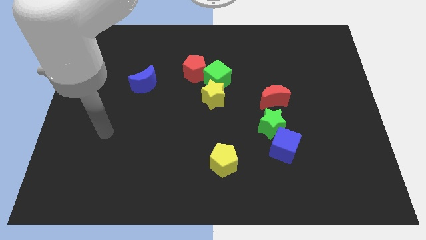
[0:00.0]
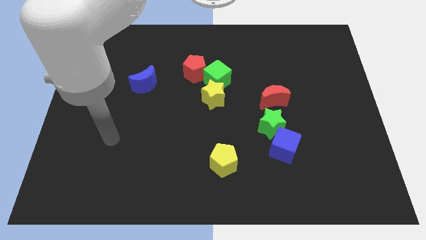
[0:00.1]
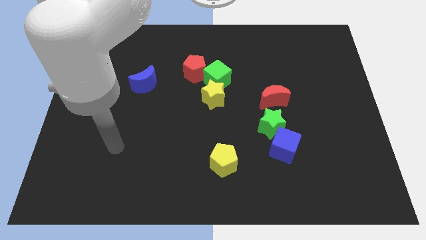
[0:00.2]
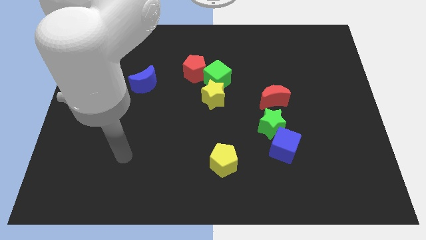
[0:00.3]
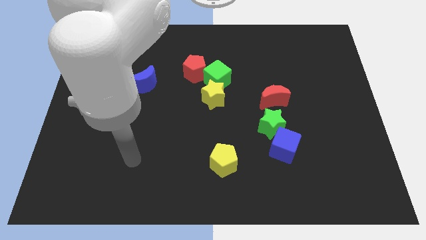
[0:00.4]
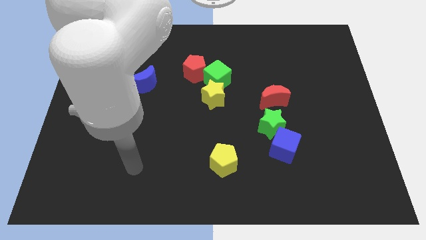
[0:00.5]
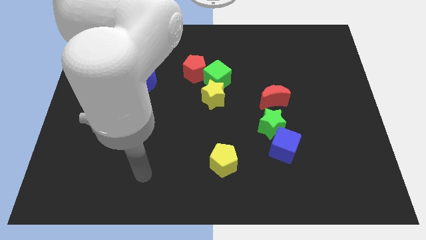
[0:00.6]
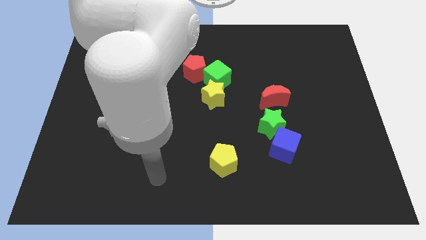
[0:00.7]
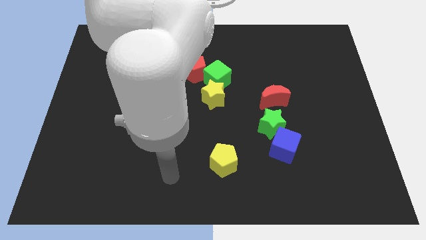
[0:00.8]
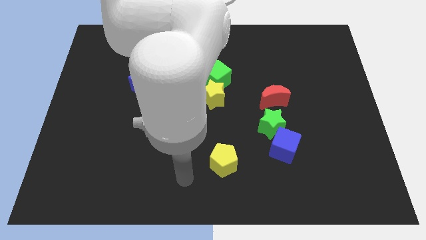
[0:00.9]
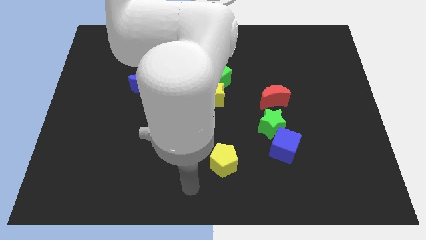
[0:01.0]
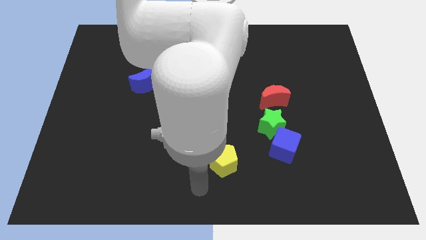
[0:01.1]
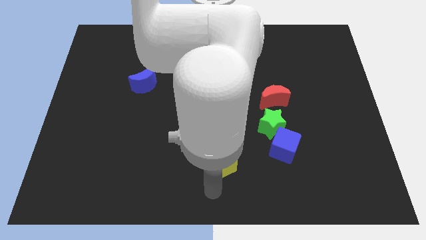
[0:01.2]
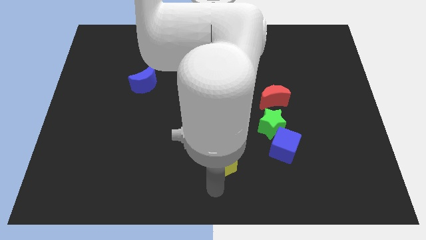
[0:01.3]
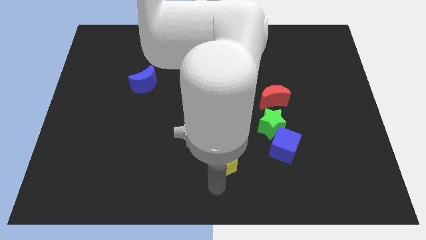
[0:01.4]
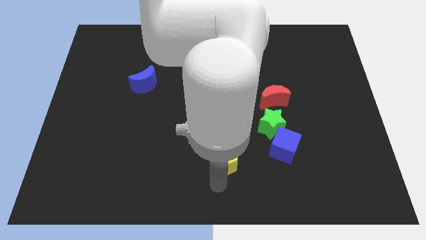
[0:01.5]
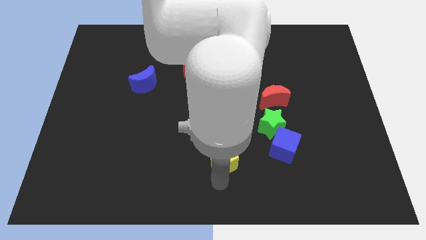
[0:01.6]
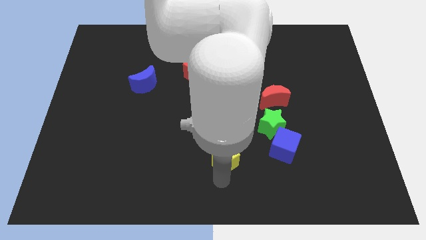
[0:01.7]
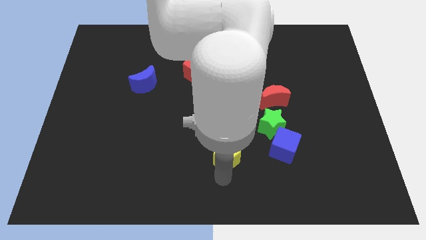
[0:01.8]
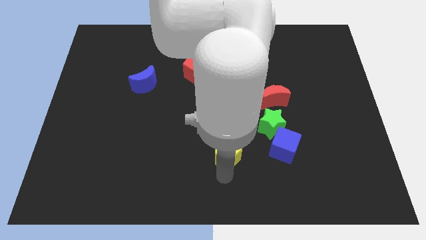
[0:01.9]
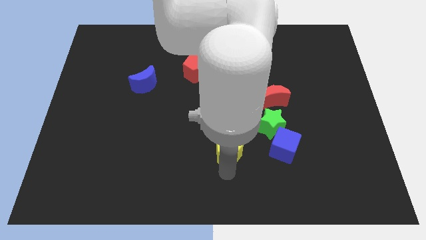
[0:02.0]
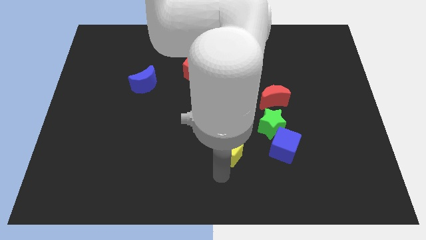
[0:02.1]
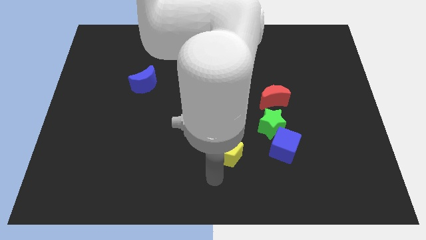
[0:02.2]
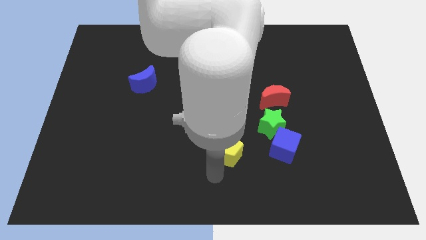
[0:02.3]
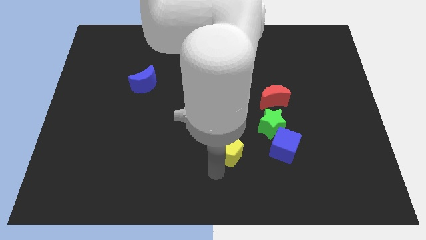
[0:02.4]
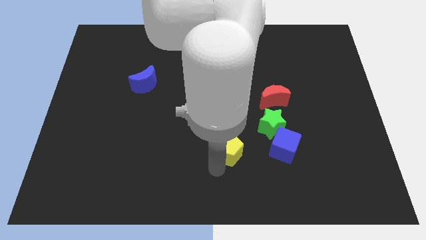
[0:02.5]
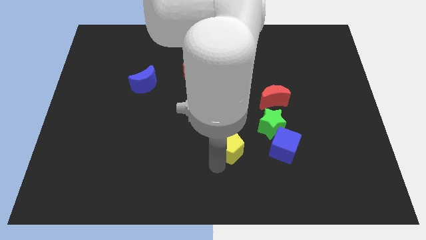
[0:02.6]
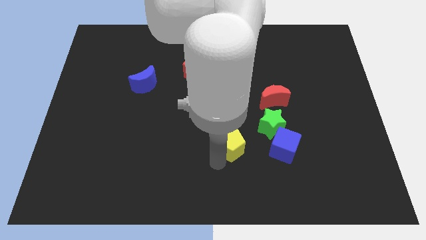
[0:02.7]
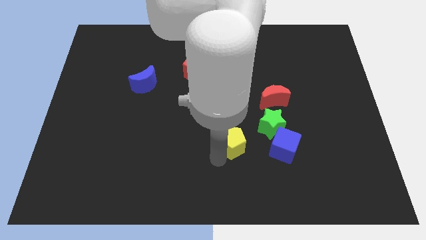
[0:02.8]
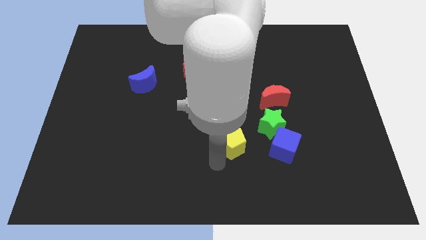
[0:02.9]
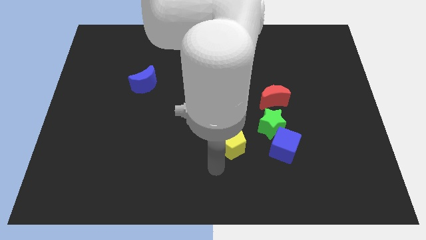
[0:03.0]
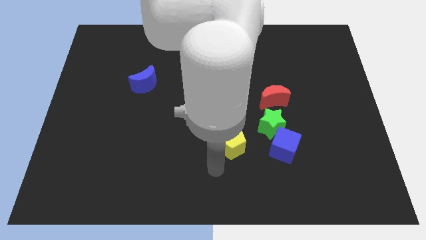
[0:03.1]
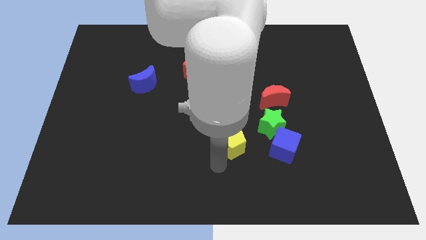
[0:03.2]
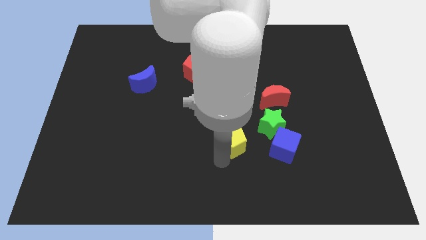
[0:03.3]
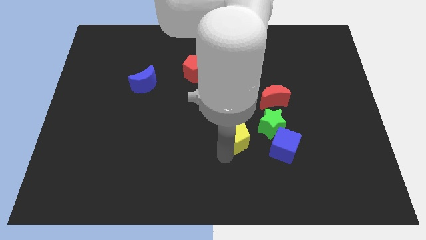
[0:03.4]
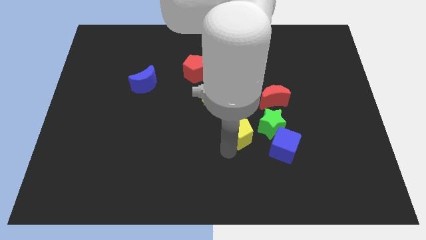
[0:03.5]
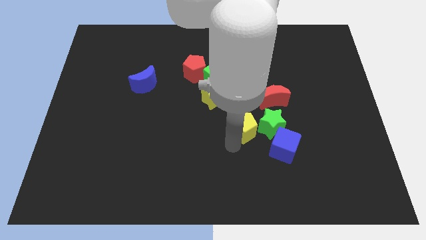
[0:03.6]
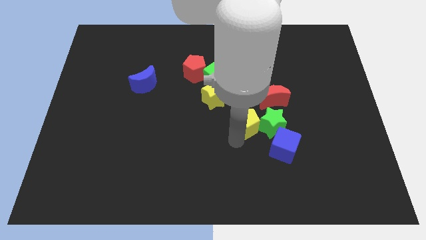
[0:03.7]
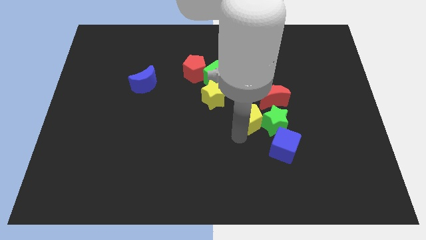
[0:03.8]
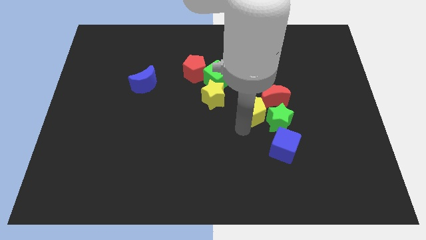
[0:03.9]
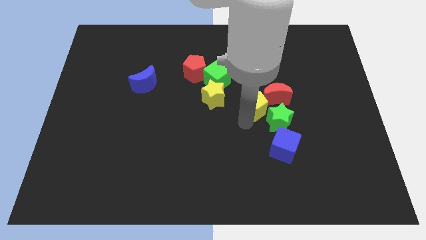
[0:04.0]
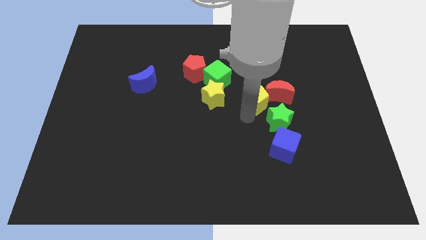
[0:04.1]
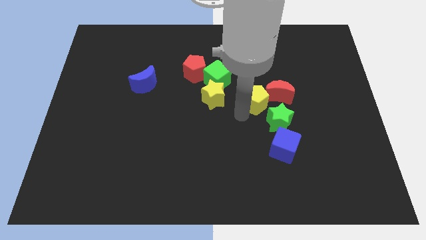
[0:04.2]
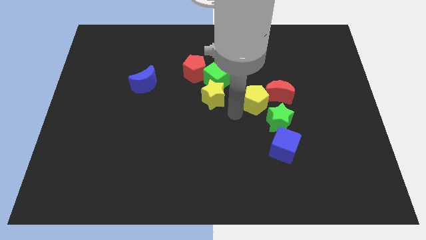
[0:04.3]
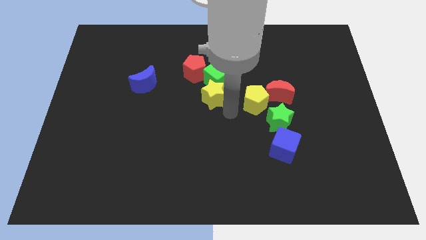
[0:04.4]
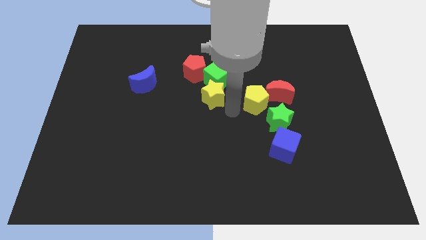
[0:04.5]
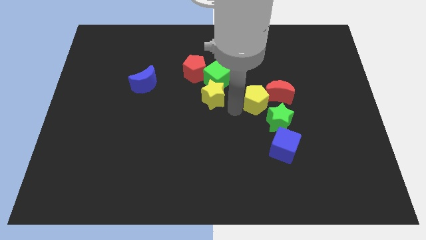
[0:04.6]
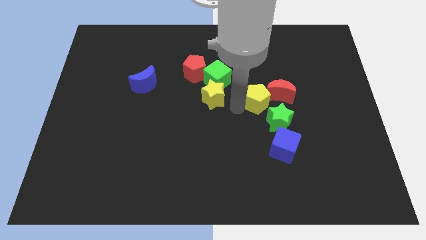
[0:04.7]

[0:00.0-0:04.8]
push the yellow pentagon to the red moon

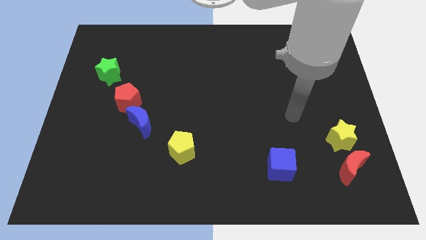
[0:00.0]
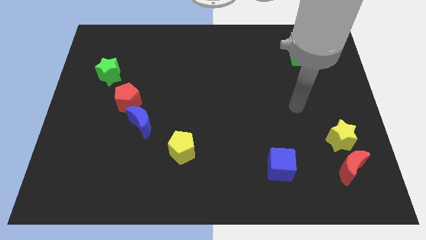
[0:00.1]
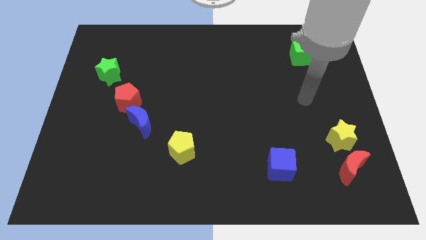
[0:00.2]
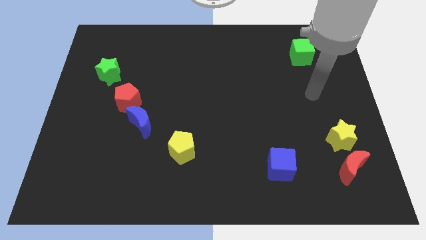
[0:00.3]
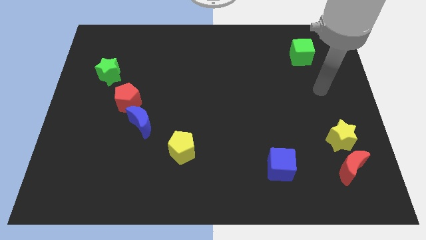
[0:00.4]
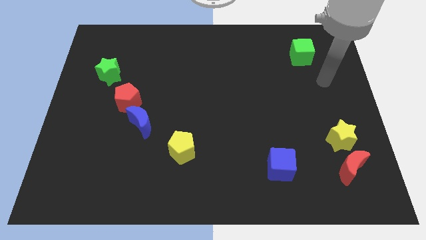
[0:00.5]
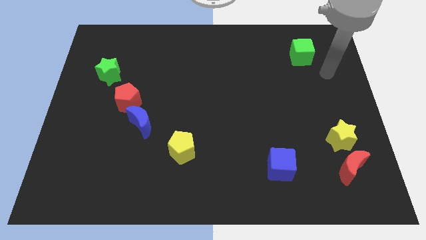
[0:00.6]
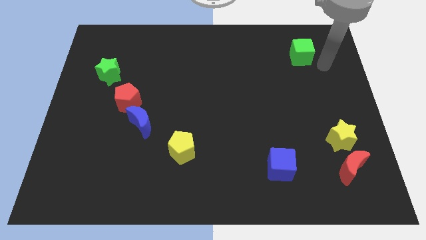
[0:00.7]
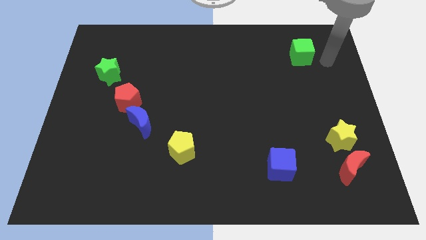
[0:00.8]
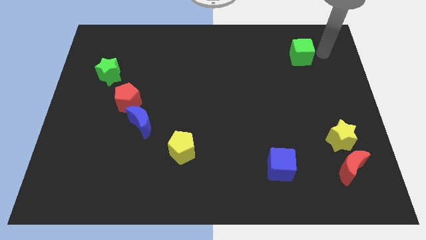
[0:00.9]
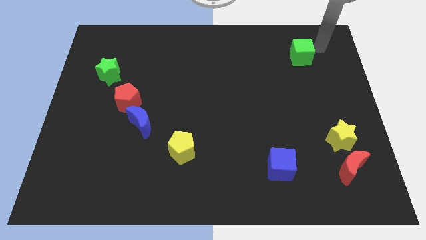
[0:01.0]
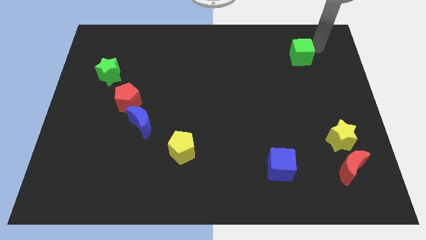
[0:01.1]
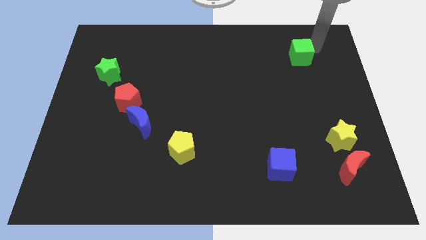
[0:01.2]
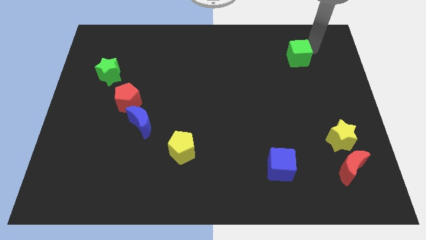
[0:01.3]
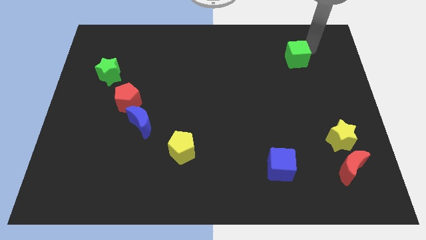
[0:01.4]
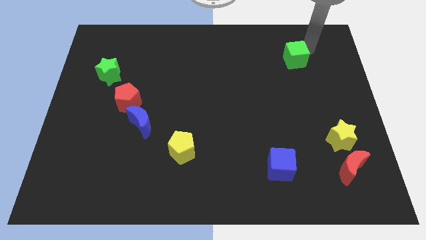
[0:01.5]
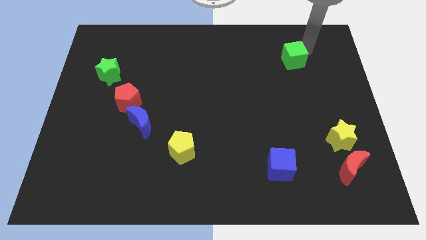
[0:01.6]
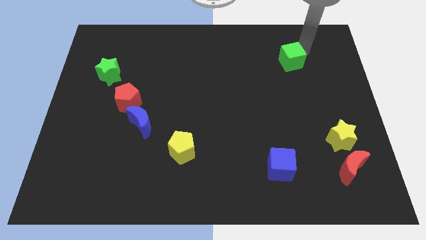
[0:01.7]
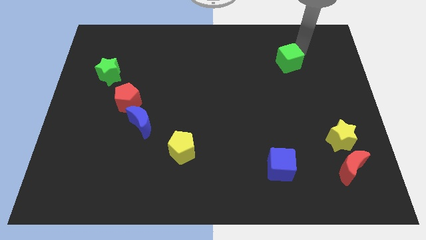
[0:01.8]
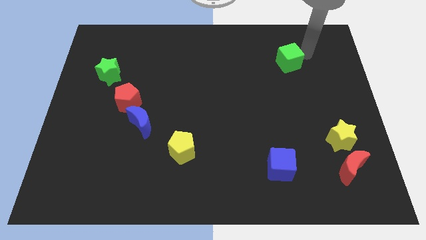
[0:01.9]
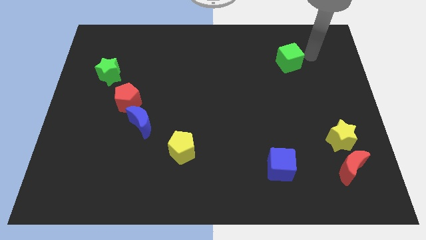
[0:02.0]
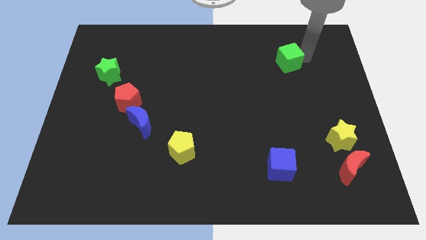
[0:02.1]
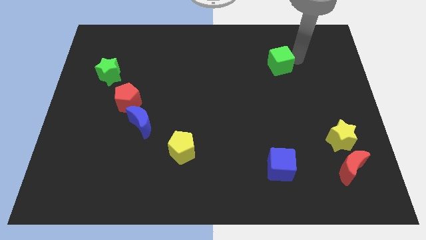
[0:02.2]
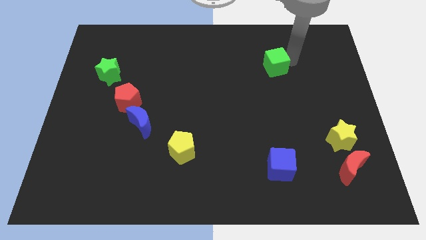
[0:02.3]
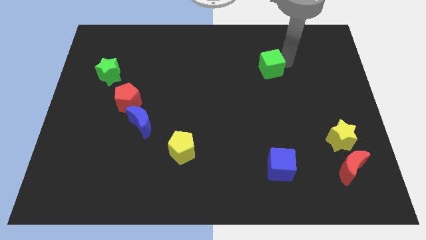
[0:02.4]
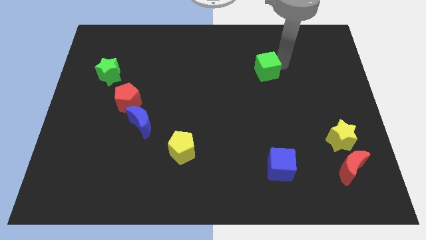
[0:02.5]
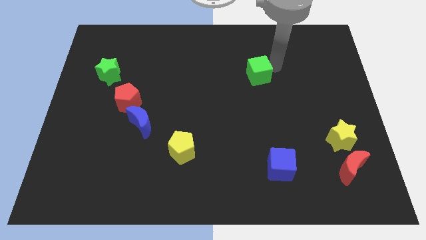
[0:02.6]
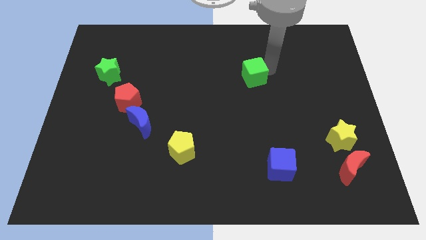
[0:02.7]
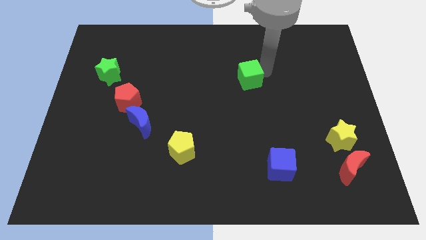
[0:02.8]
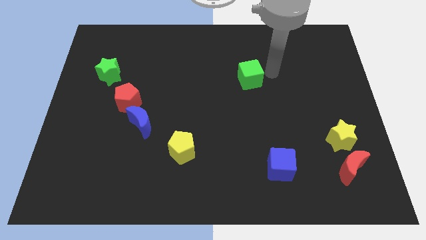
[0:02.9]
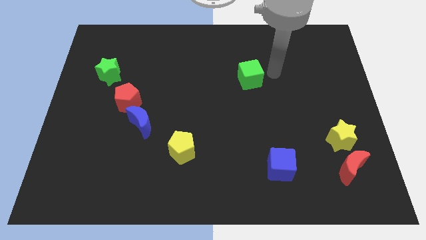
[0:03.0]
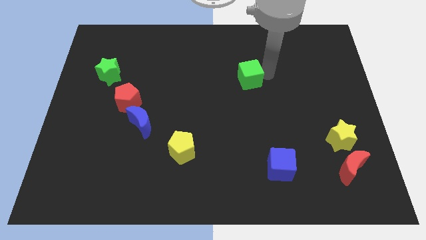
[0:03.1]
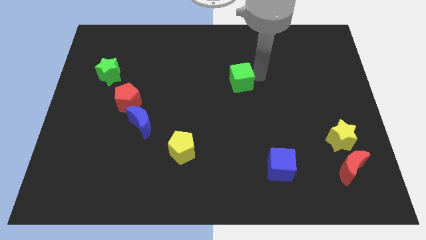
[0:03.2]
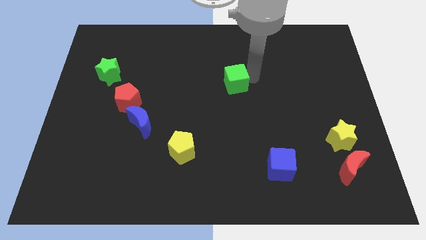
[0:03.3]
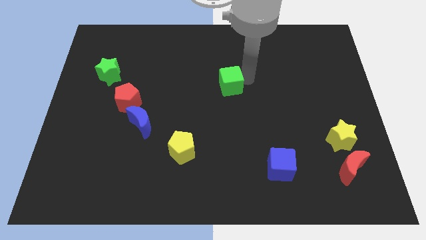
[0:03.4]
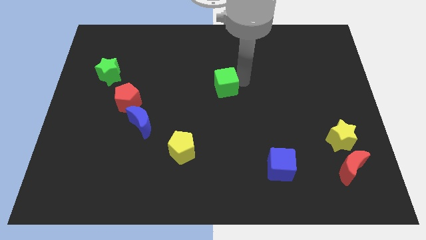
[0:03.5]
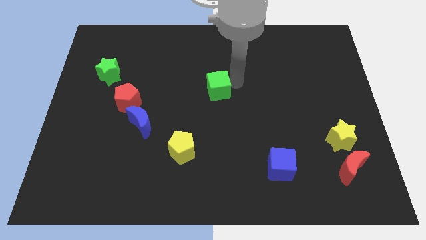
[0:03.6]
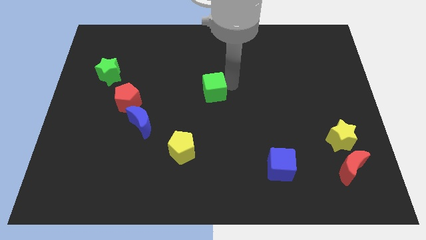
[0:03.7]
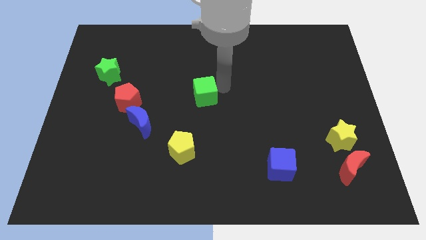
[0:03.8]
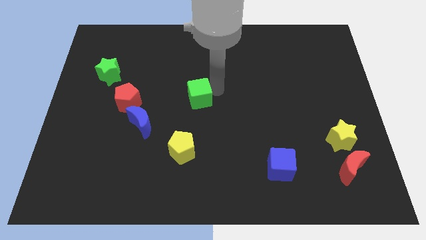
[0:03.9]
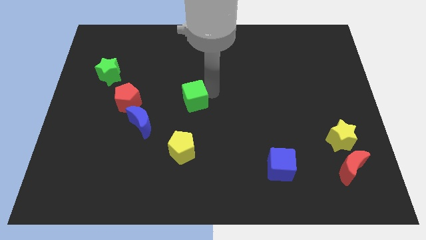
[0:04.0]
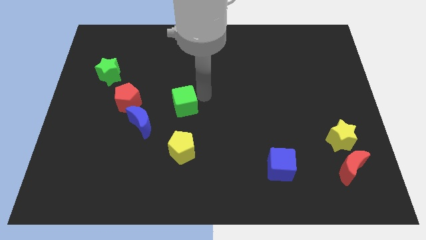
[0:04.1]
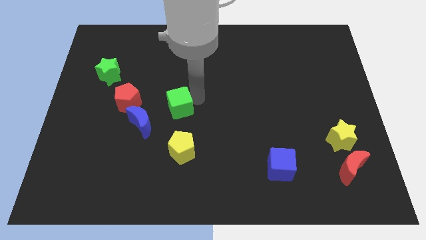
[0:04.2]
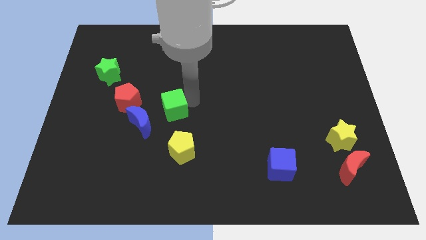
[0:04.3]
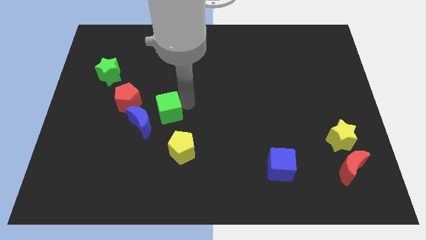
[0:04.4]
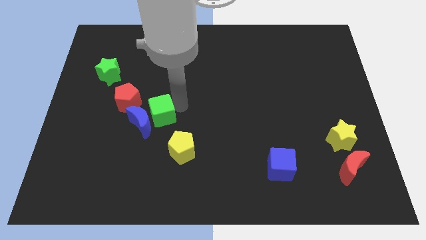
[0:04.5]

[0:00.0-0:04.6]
push the green cube towards the blue moon
